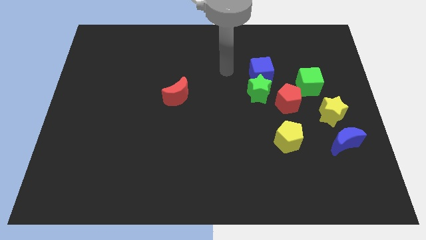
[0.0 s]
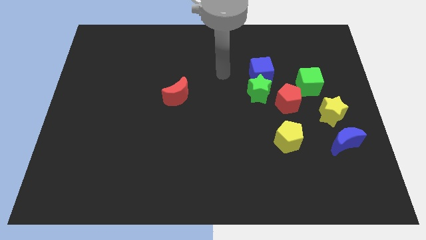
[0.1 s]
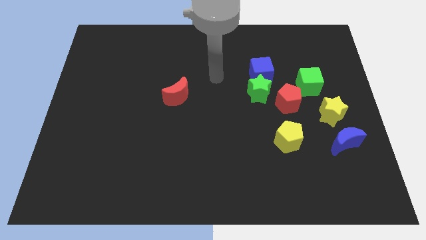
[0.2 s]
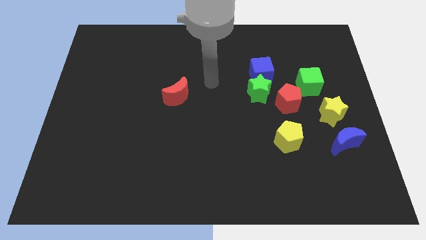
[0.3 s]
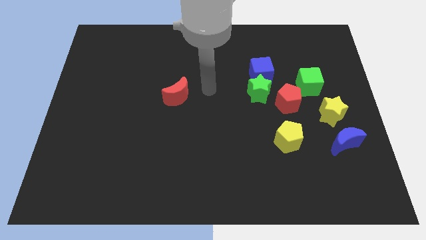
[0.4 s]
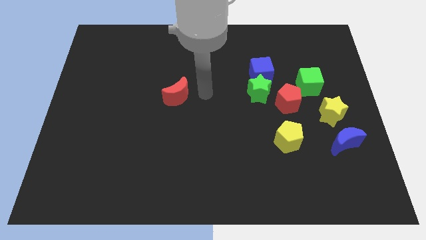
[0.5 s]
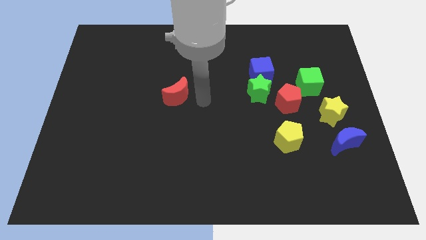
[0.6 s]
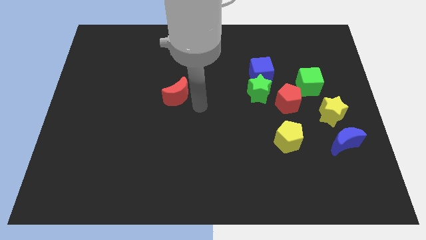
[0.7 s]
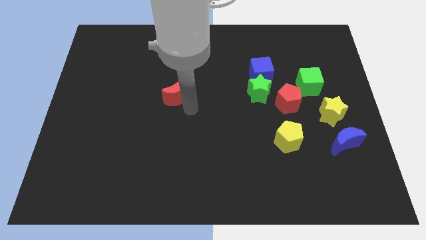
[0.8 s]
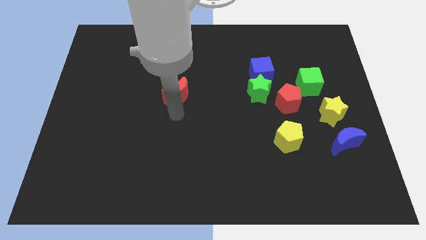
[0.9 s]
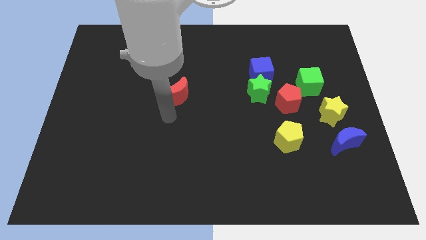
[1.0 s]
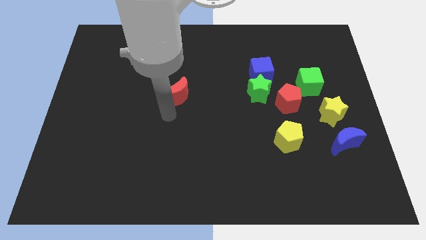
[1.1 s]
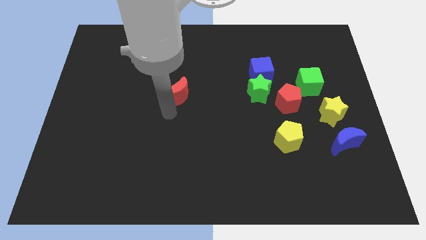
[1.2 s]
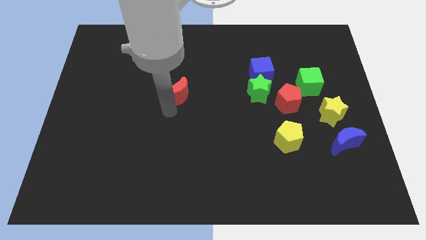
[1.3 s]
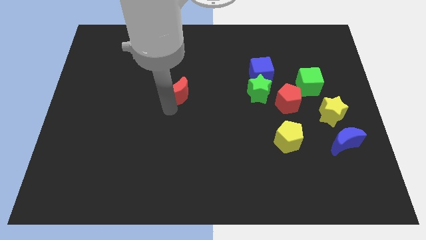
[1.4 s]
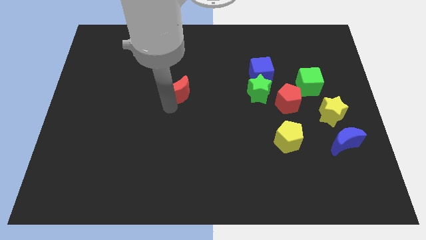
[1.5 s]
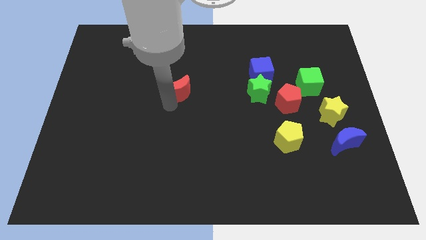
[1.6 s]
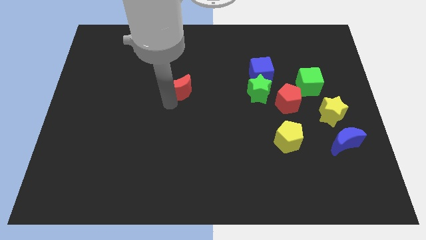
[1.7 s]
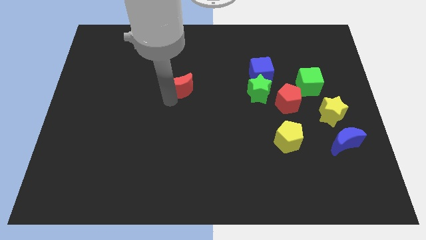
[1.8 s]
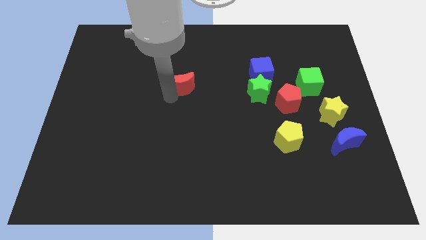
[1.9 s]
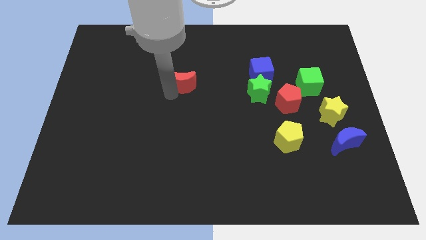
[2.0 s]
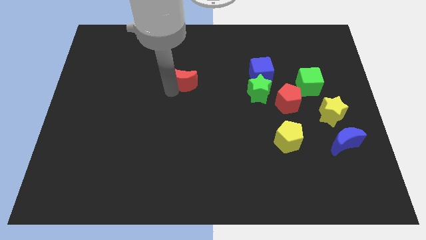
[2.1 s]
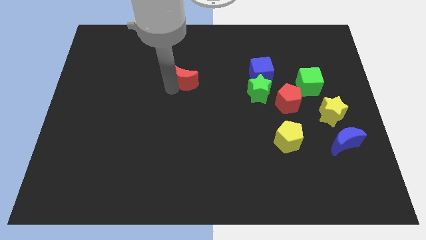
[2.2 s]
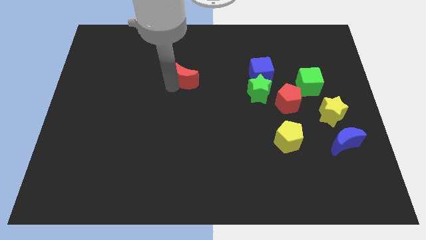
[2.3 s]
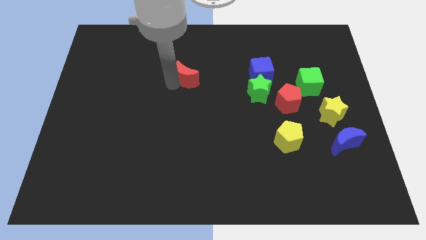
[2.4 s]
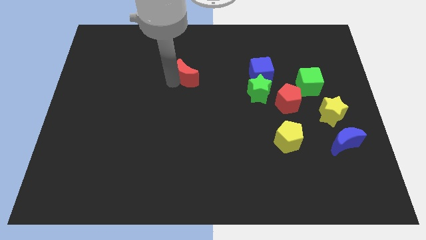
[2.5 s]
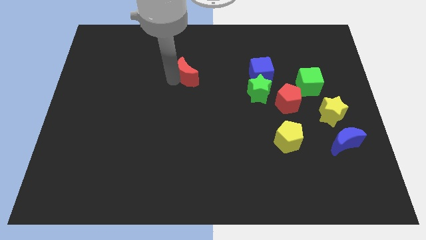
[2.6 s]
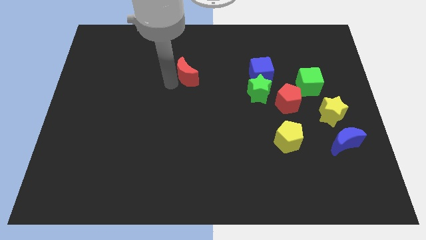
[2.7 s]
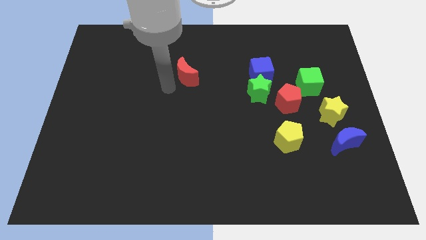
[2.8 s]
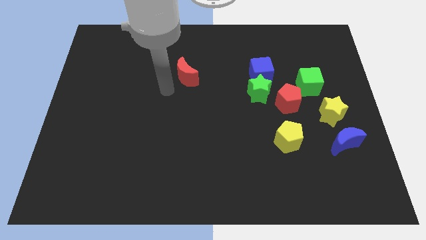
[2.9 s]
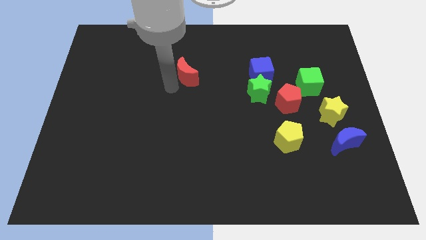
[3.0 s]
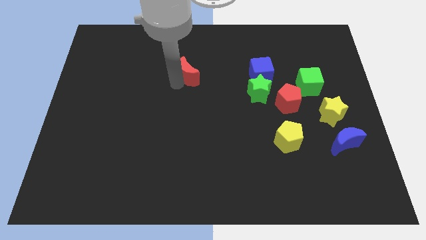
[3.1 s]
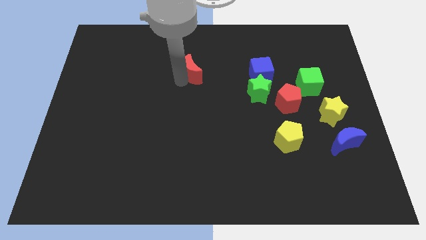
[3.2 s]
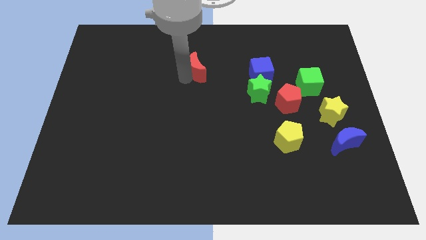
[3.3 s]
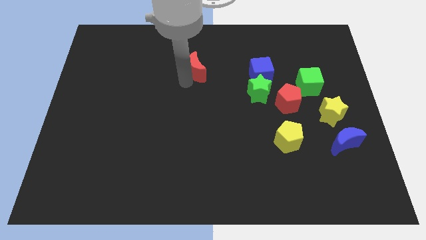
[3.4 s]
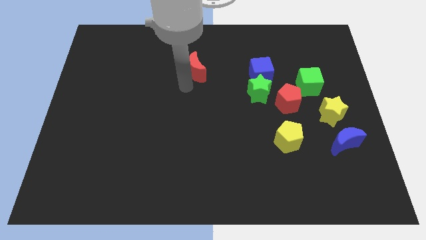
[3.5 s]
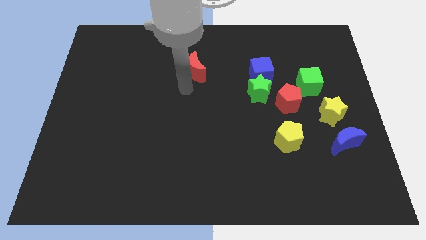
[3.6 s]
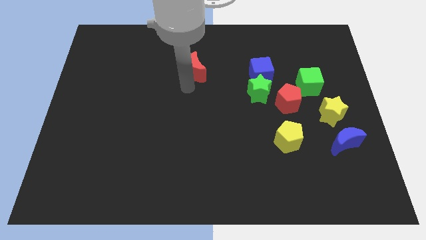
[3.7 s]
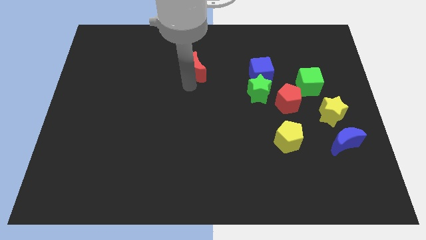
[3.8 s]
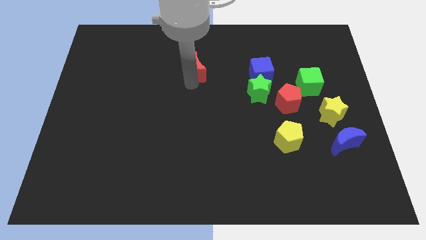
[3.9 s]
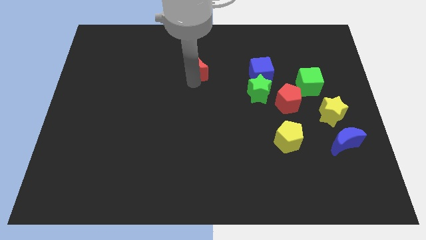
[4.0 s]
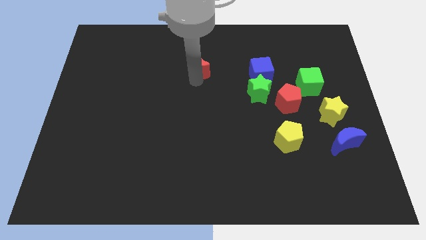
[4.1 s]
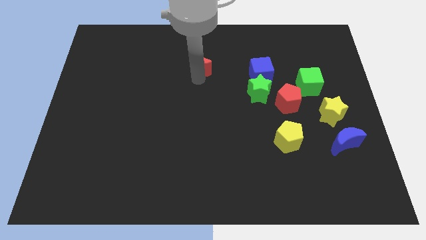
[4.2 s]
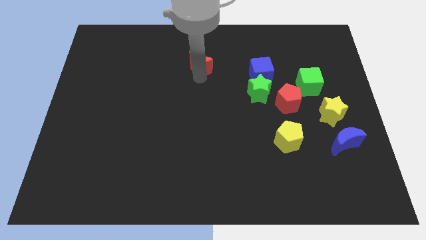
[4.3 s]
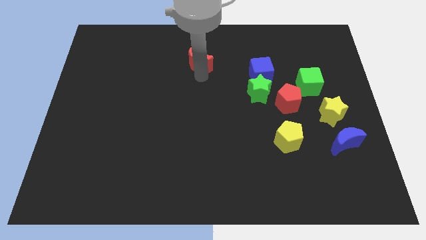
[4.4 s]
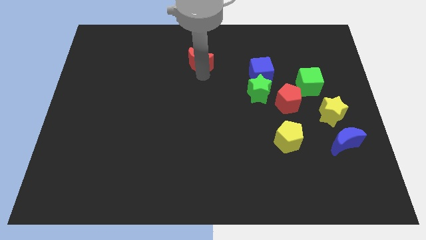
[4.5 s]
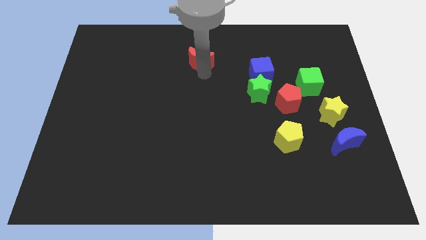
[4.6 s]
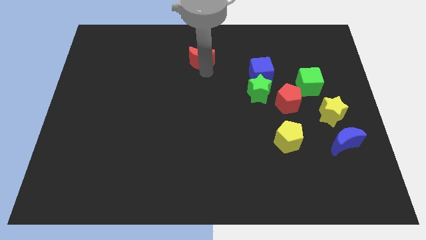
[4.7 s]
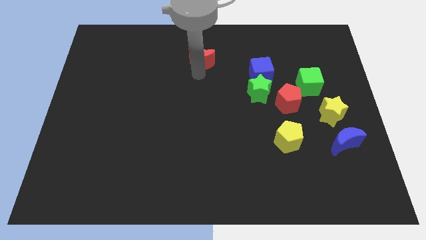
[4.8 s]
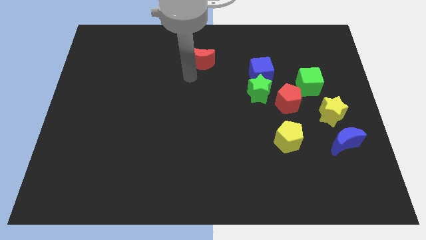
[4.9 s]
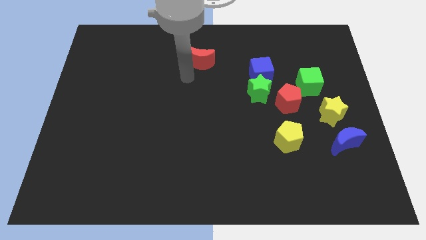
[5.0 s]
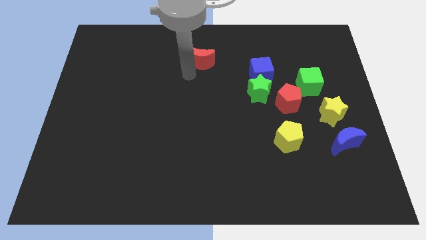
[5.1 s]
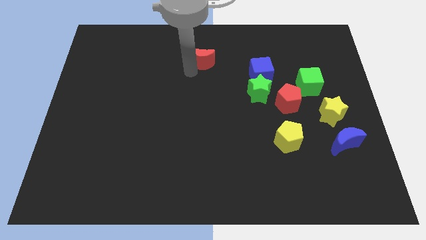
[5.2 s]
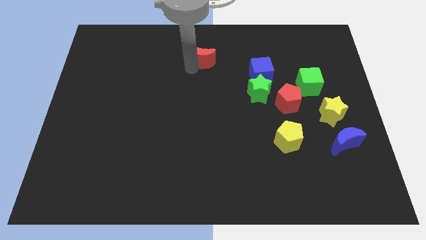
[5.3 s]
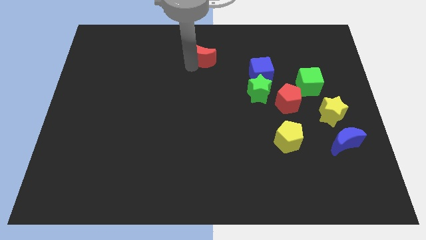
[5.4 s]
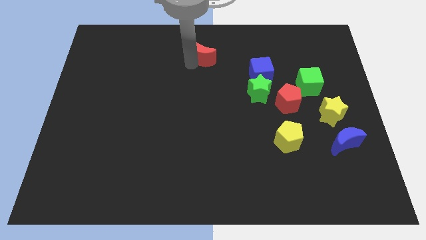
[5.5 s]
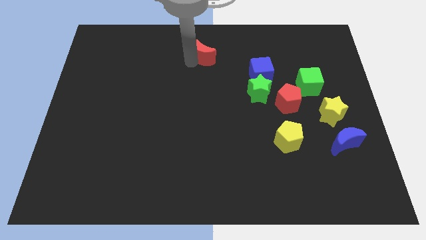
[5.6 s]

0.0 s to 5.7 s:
put the red moon to the top

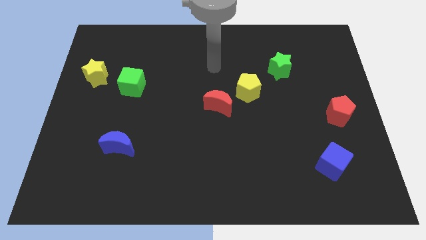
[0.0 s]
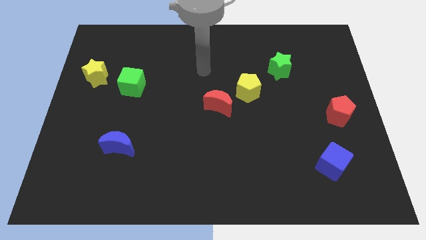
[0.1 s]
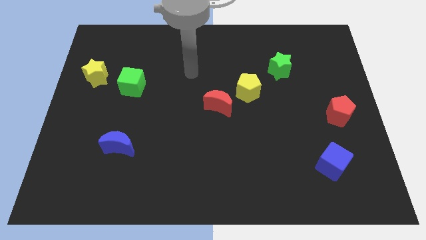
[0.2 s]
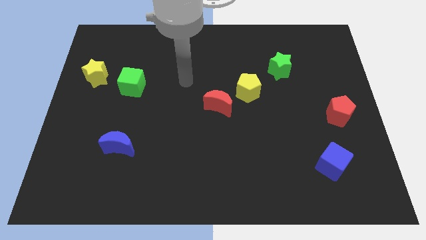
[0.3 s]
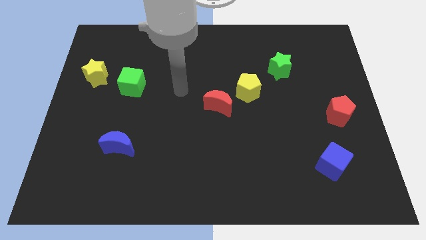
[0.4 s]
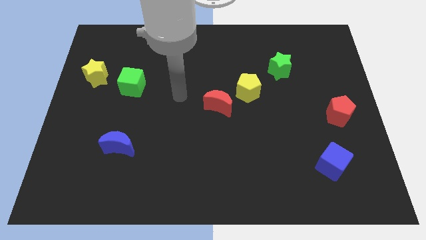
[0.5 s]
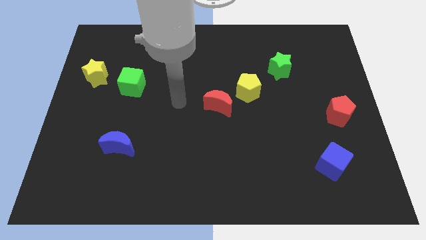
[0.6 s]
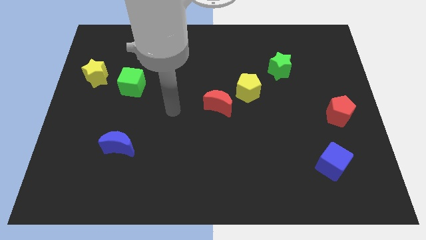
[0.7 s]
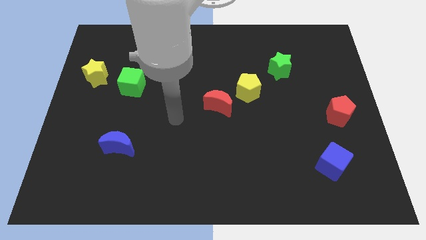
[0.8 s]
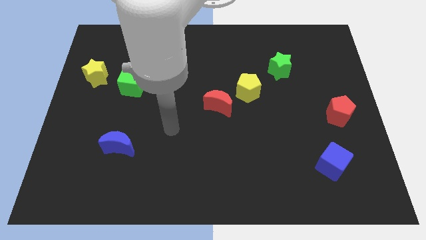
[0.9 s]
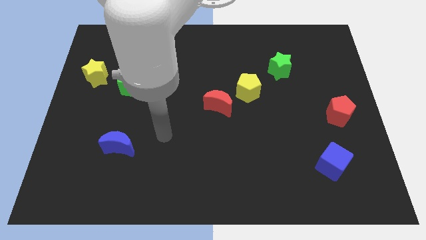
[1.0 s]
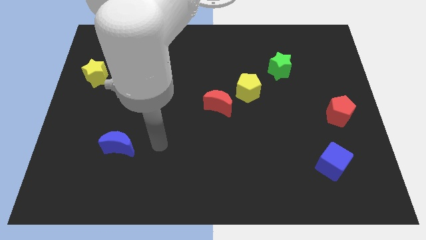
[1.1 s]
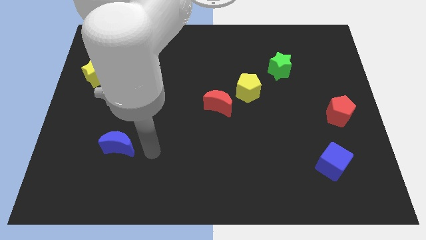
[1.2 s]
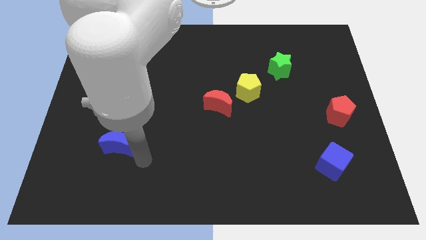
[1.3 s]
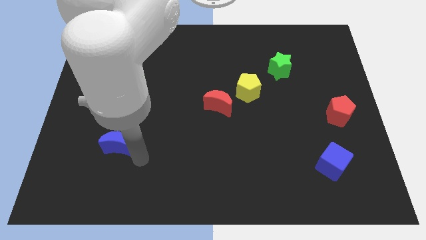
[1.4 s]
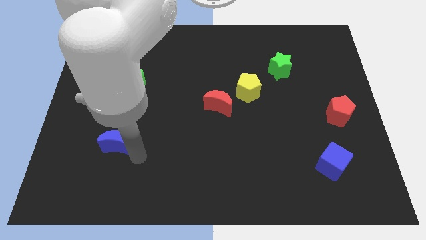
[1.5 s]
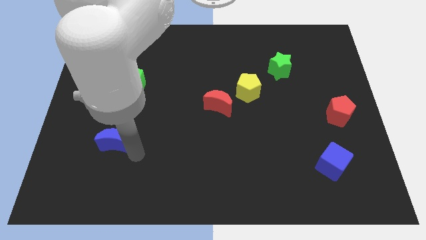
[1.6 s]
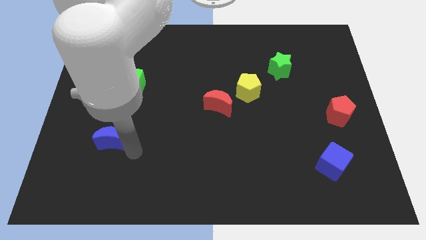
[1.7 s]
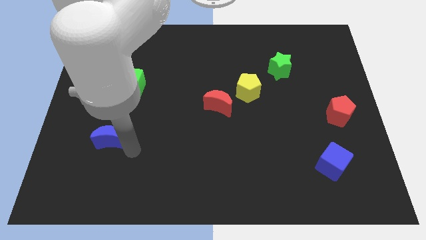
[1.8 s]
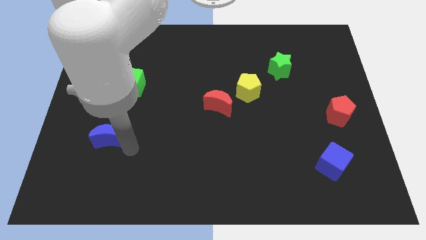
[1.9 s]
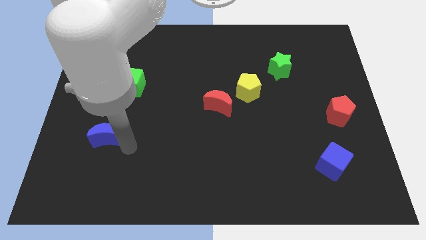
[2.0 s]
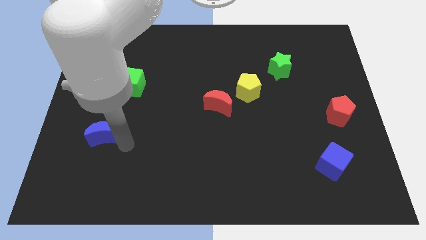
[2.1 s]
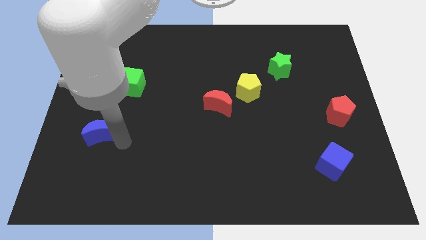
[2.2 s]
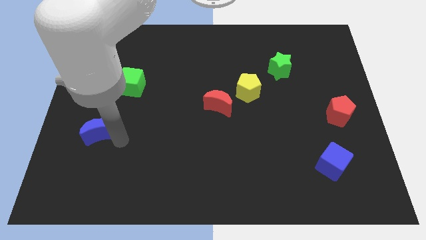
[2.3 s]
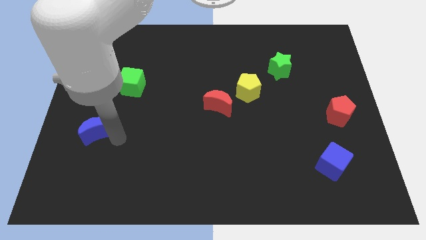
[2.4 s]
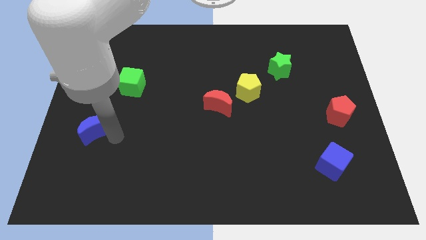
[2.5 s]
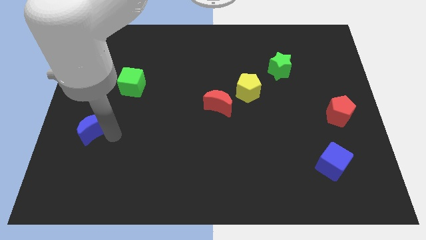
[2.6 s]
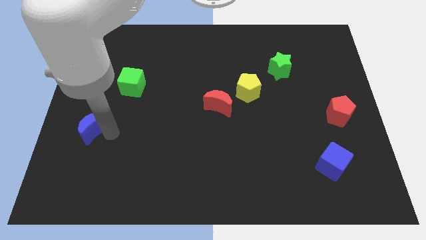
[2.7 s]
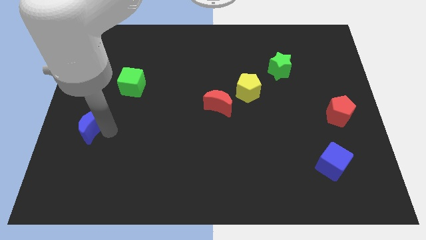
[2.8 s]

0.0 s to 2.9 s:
slide the blue moon to the left side
